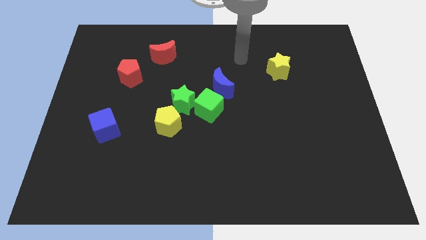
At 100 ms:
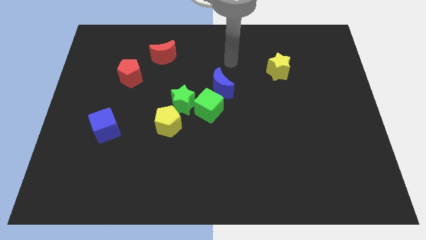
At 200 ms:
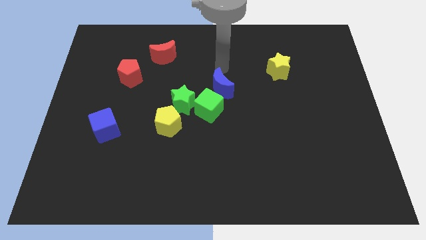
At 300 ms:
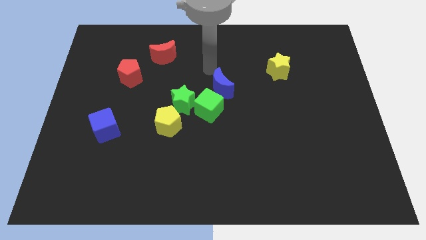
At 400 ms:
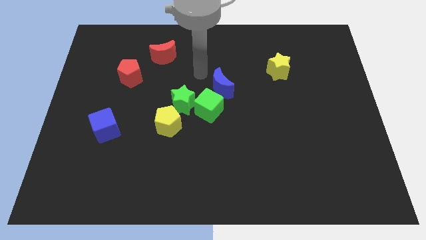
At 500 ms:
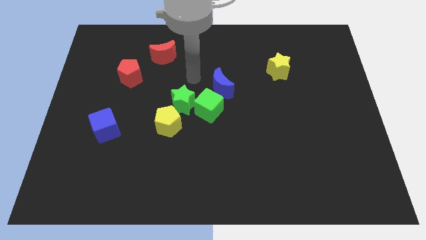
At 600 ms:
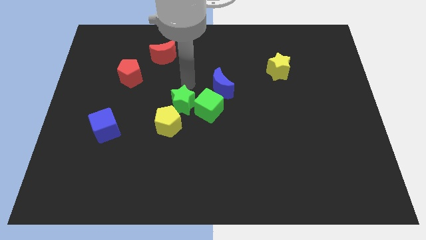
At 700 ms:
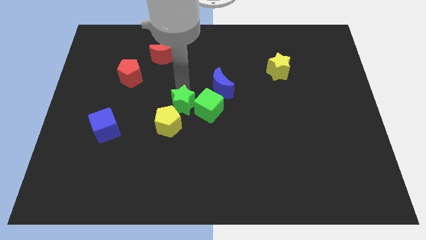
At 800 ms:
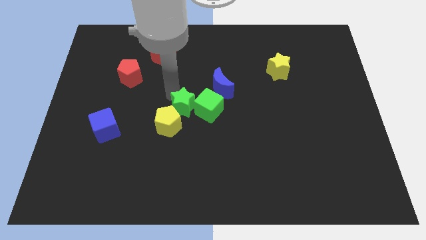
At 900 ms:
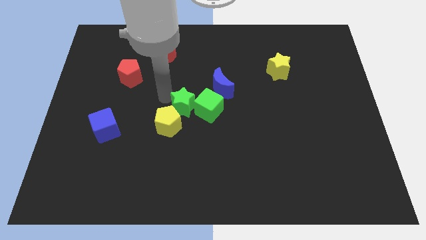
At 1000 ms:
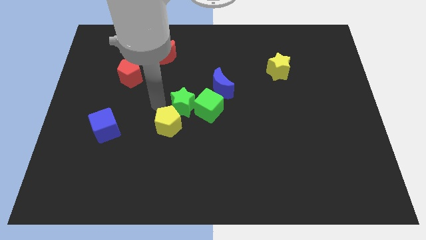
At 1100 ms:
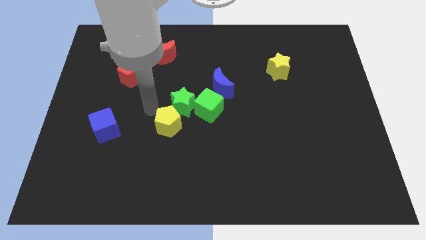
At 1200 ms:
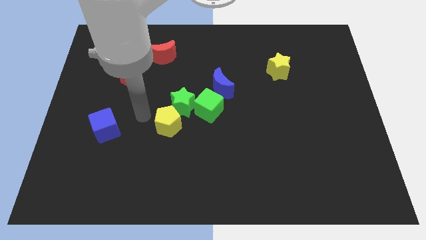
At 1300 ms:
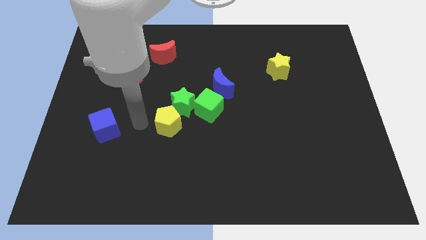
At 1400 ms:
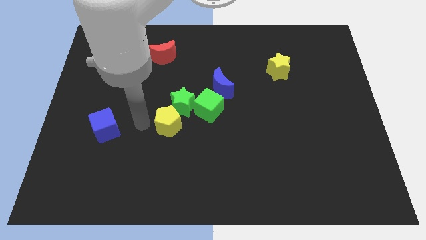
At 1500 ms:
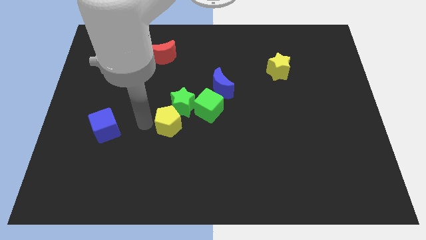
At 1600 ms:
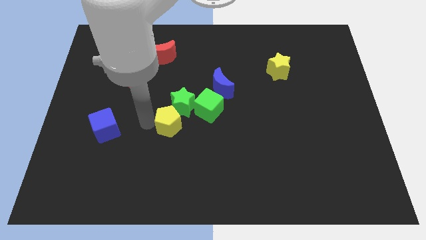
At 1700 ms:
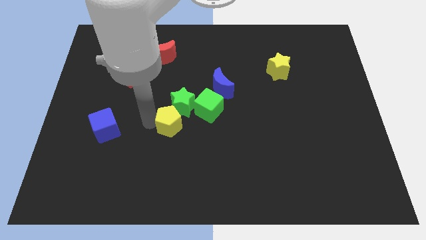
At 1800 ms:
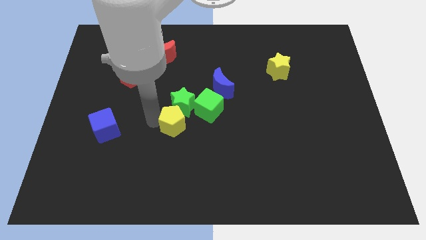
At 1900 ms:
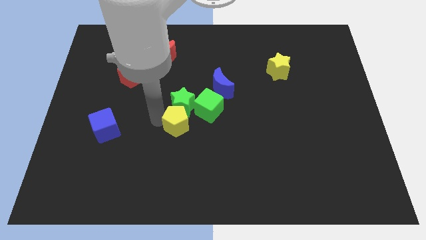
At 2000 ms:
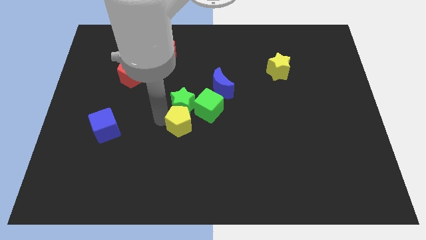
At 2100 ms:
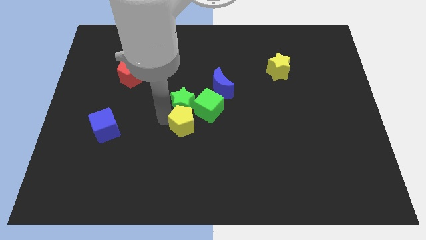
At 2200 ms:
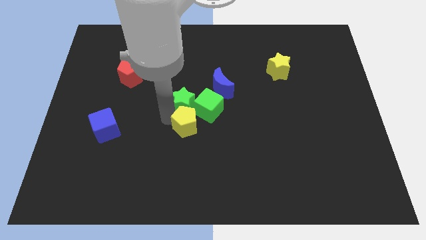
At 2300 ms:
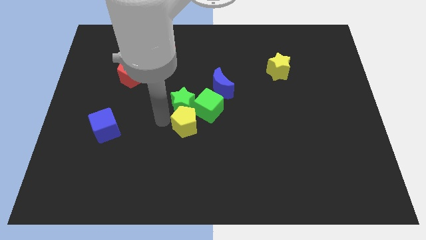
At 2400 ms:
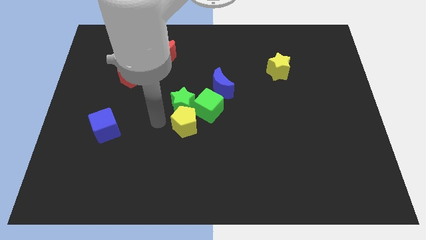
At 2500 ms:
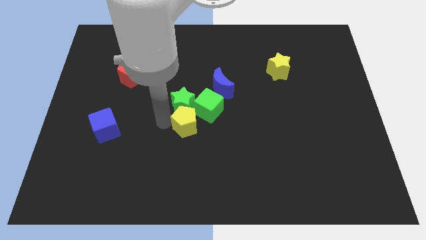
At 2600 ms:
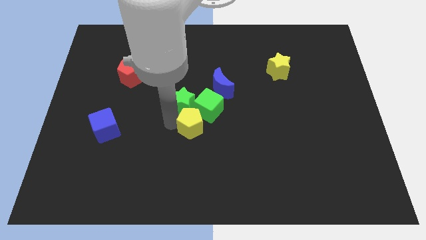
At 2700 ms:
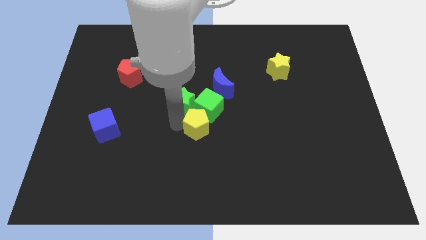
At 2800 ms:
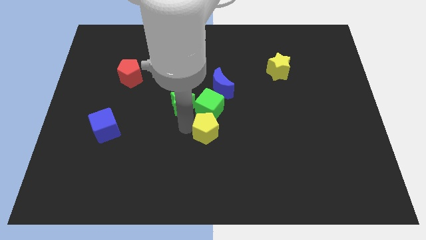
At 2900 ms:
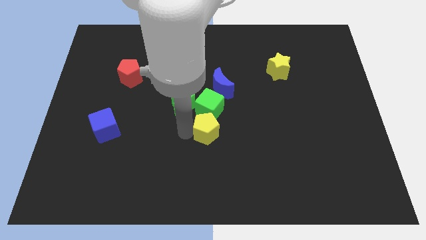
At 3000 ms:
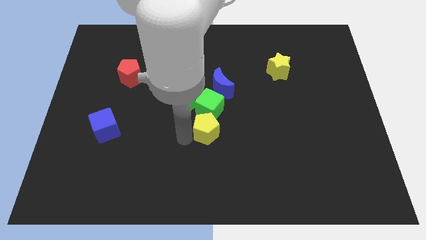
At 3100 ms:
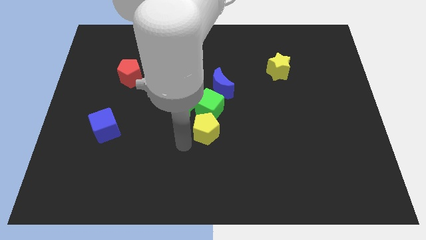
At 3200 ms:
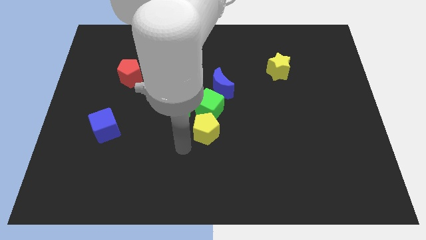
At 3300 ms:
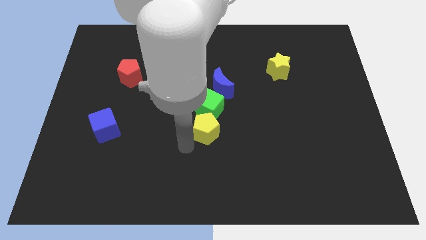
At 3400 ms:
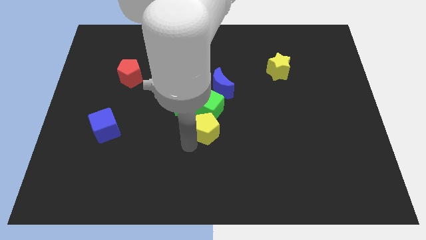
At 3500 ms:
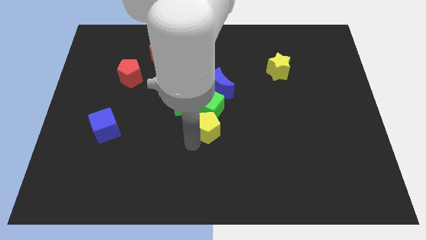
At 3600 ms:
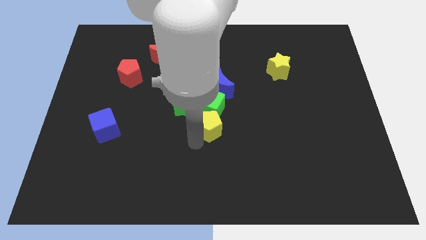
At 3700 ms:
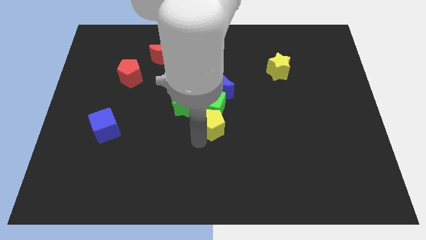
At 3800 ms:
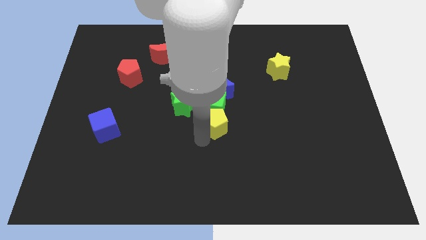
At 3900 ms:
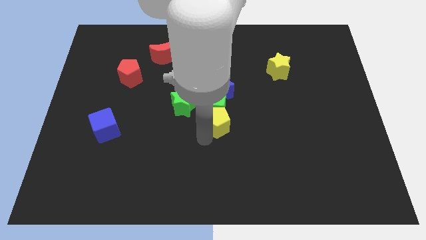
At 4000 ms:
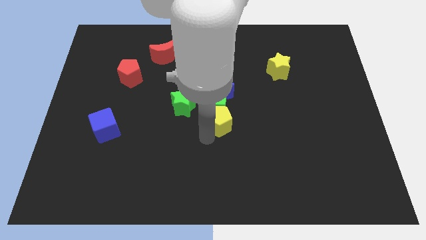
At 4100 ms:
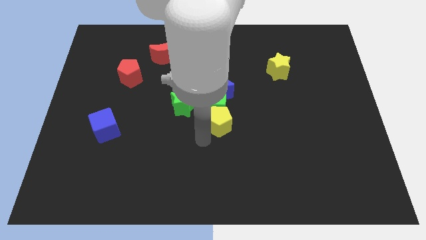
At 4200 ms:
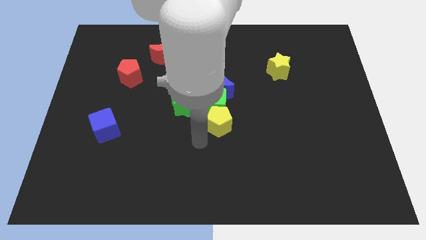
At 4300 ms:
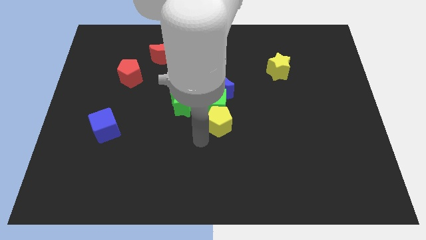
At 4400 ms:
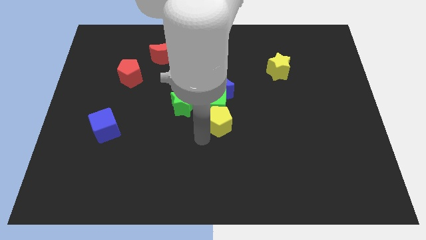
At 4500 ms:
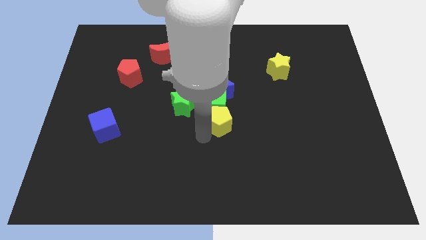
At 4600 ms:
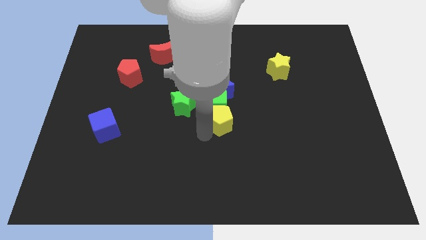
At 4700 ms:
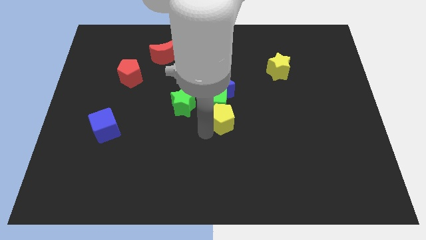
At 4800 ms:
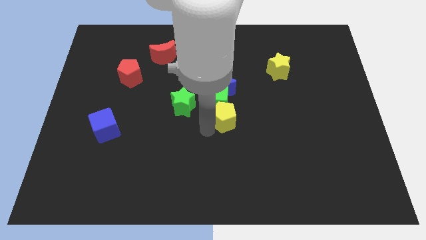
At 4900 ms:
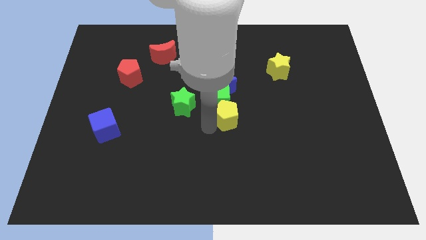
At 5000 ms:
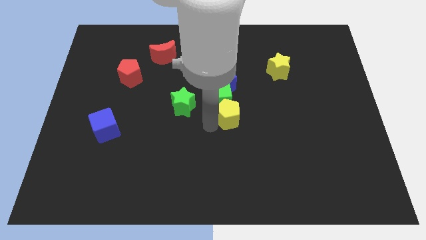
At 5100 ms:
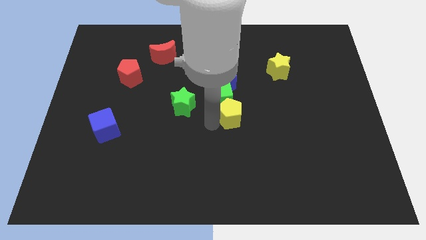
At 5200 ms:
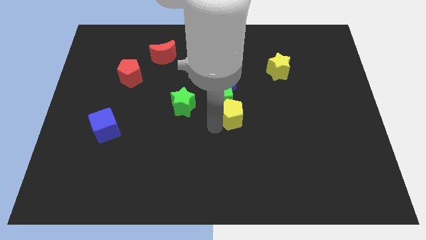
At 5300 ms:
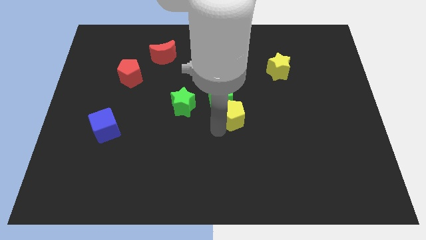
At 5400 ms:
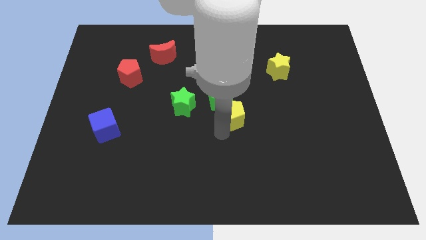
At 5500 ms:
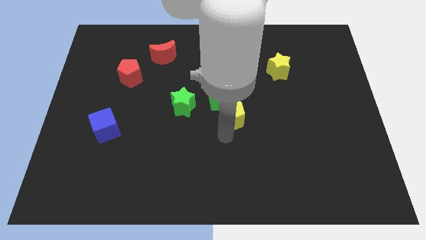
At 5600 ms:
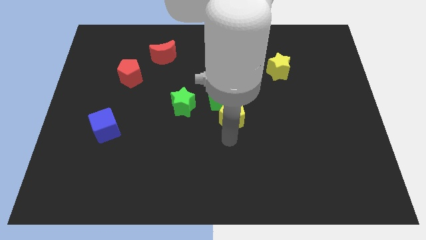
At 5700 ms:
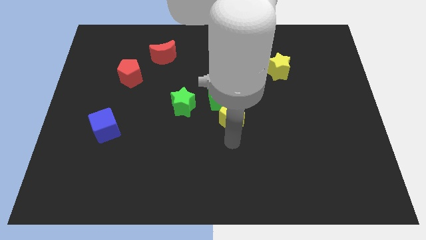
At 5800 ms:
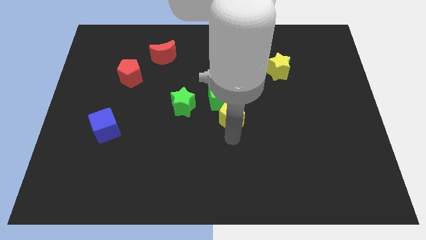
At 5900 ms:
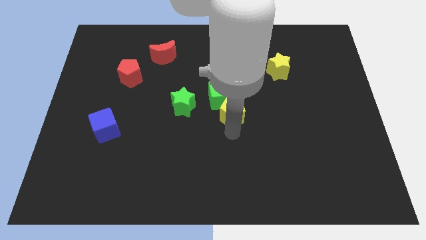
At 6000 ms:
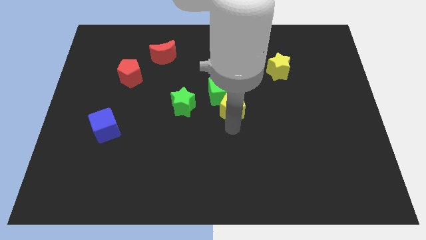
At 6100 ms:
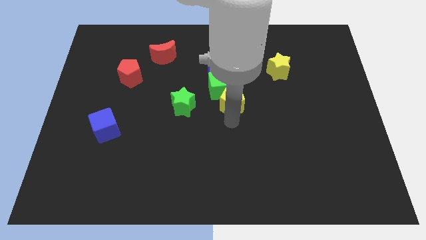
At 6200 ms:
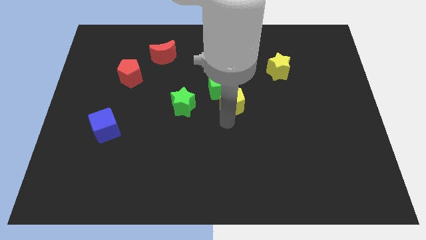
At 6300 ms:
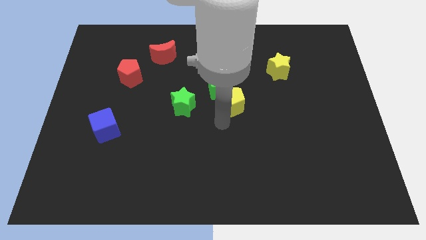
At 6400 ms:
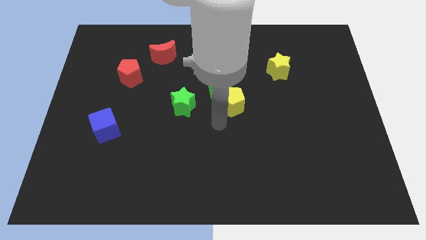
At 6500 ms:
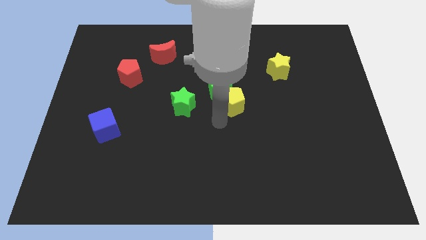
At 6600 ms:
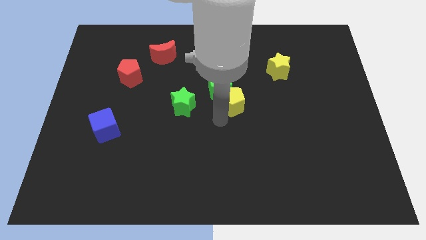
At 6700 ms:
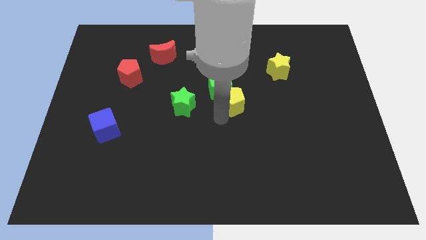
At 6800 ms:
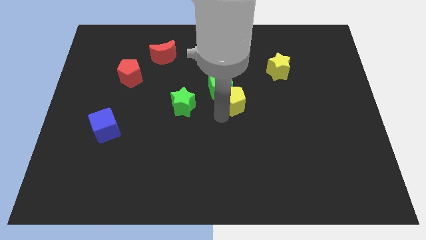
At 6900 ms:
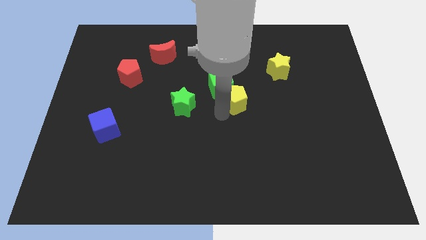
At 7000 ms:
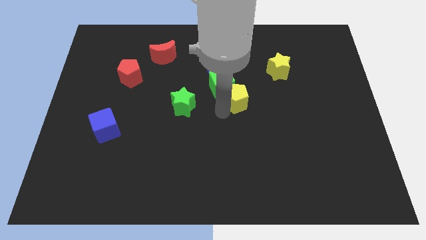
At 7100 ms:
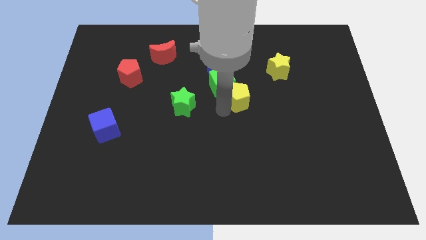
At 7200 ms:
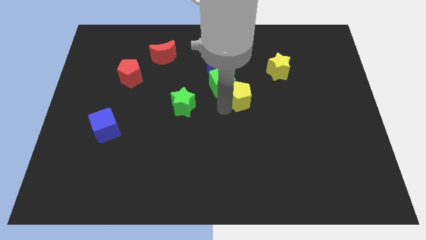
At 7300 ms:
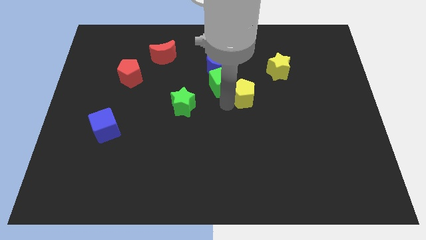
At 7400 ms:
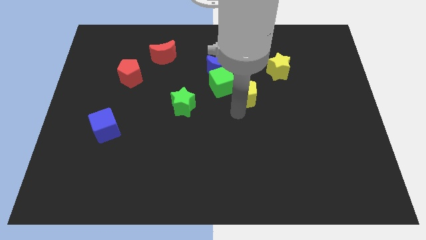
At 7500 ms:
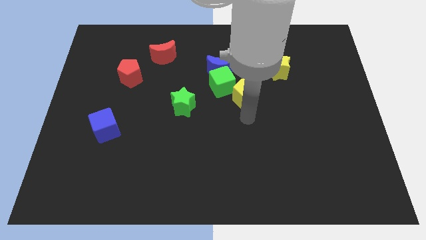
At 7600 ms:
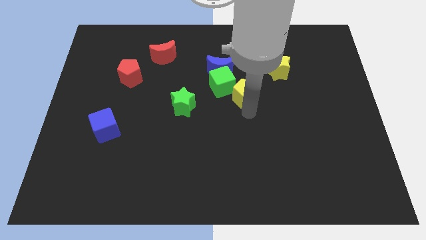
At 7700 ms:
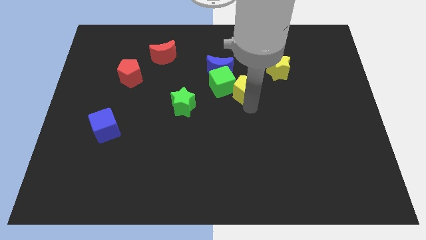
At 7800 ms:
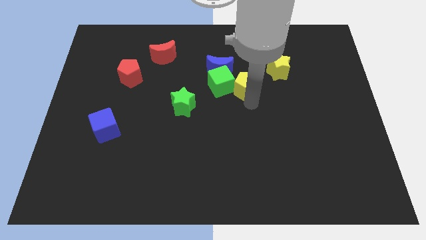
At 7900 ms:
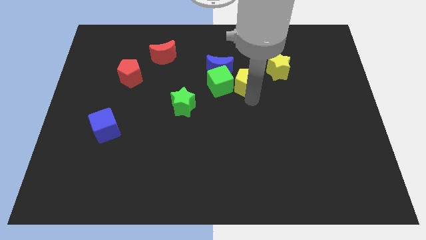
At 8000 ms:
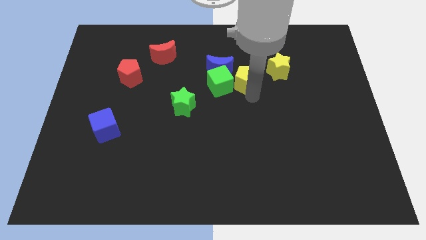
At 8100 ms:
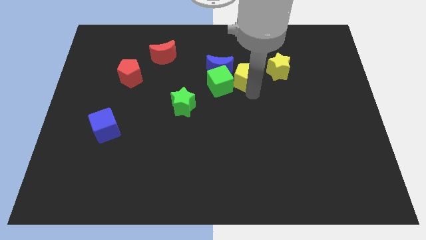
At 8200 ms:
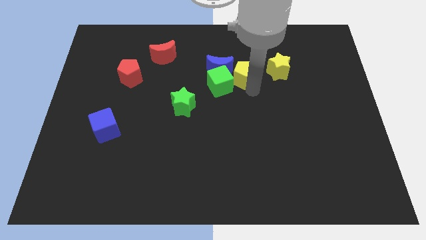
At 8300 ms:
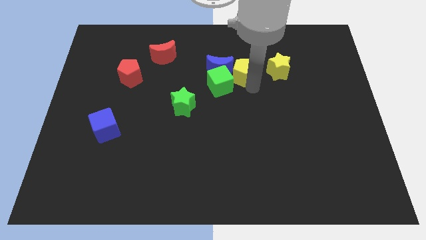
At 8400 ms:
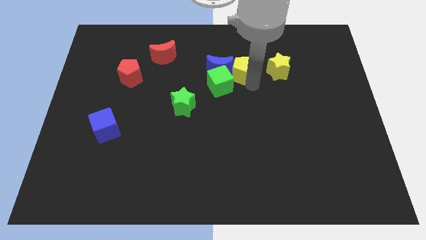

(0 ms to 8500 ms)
put the yellow pentagon to the top right of the blue moon
